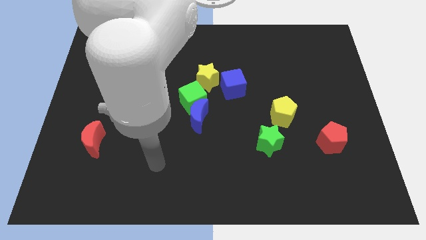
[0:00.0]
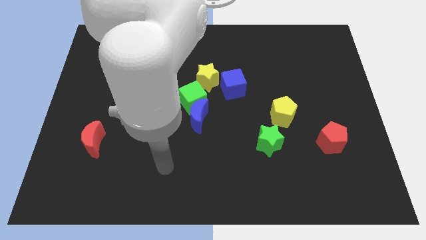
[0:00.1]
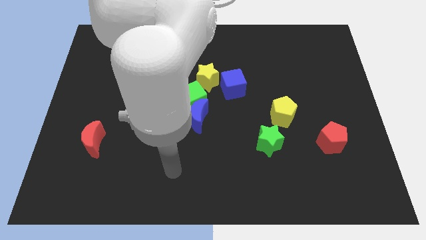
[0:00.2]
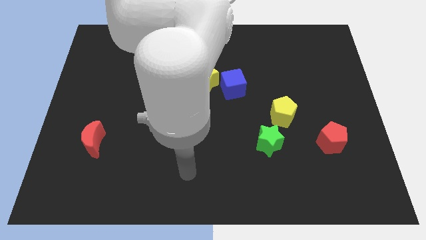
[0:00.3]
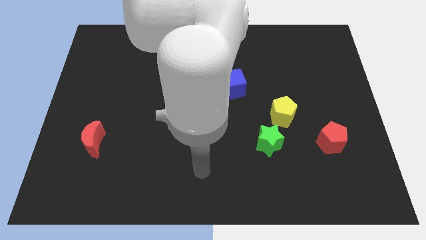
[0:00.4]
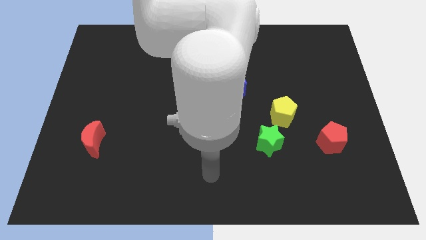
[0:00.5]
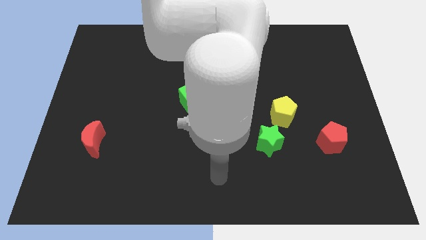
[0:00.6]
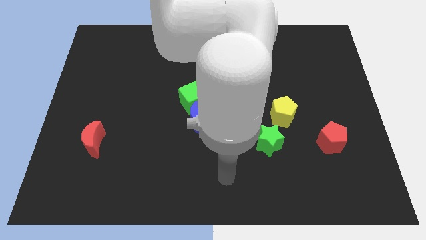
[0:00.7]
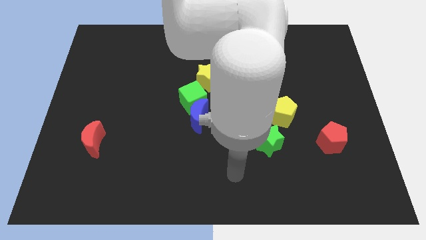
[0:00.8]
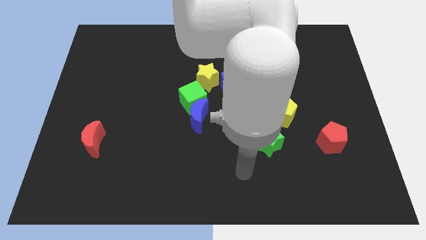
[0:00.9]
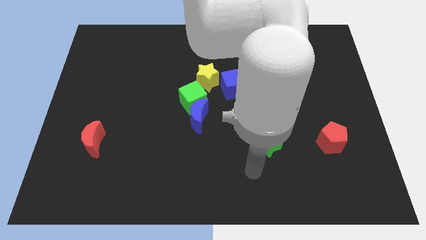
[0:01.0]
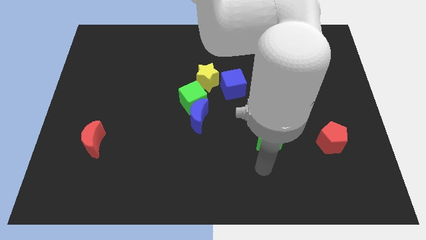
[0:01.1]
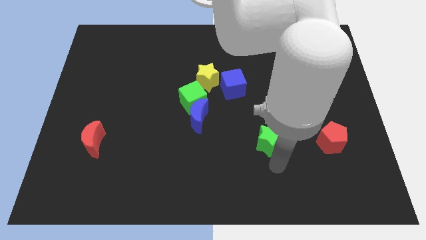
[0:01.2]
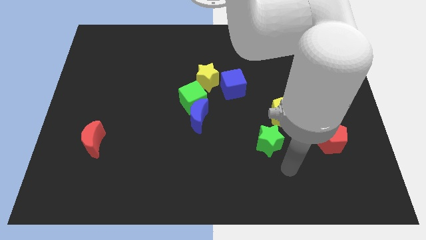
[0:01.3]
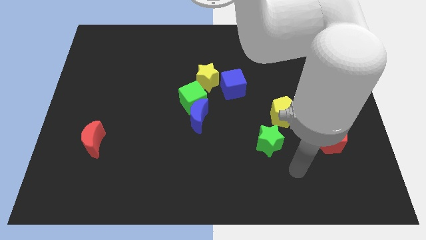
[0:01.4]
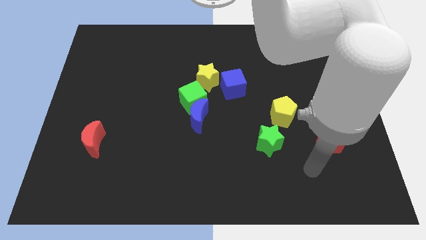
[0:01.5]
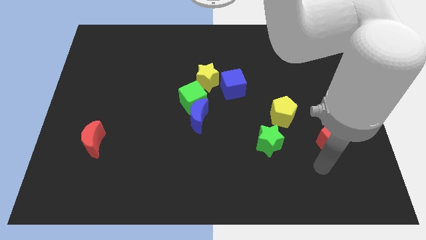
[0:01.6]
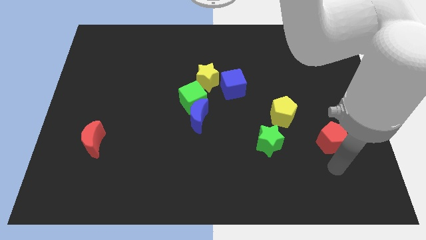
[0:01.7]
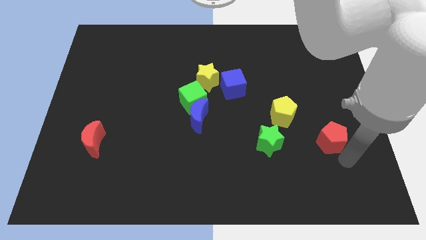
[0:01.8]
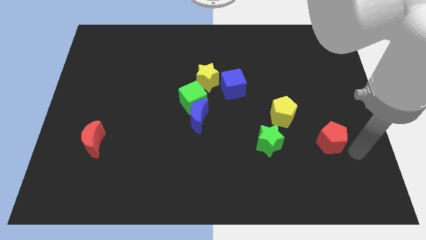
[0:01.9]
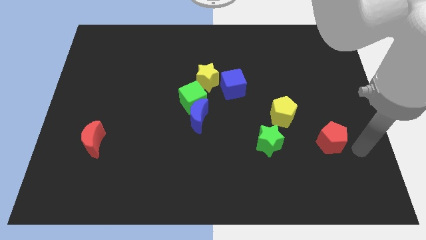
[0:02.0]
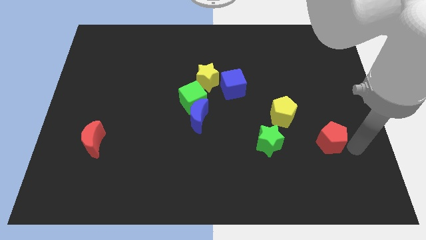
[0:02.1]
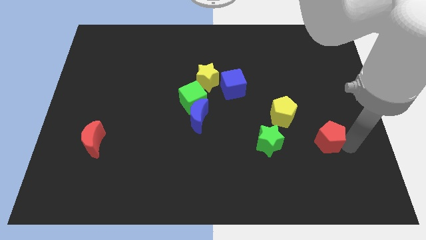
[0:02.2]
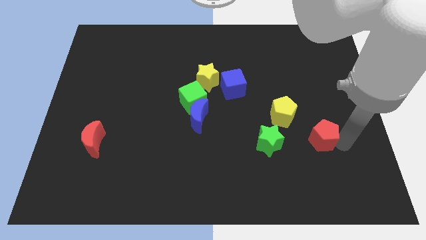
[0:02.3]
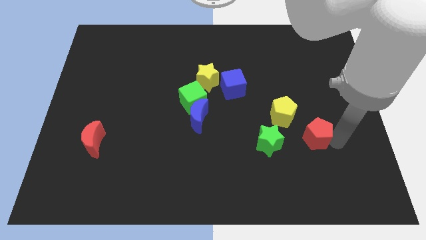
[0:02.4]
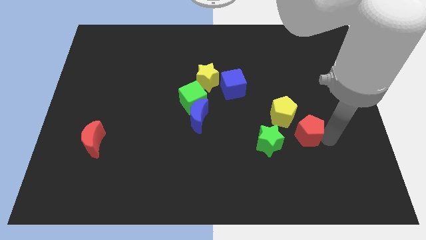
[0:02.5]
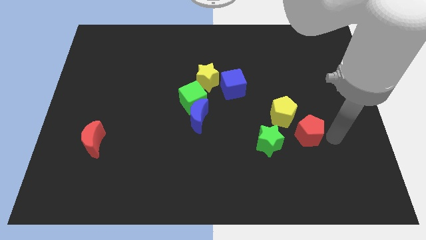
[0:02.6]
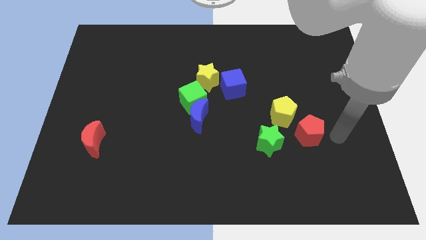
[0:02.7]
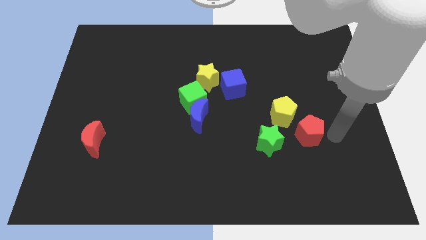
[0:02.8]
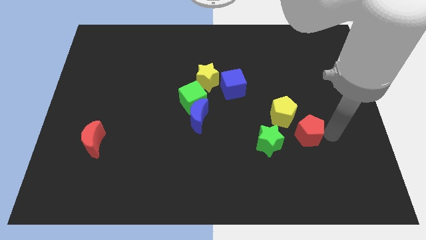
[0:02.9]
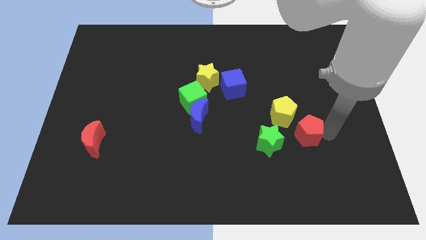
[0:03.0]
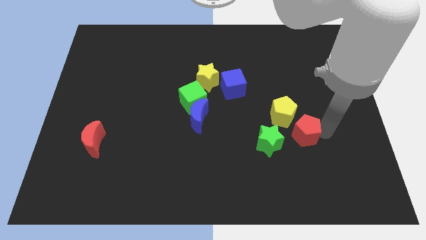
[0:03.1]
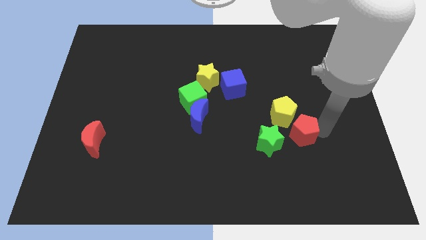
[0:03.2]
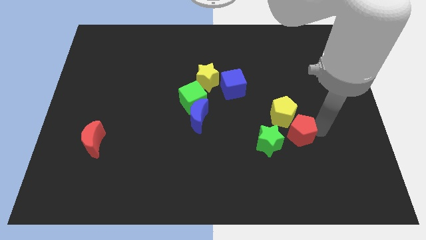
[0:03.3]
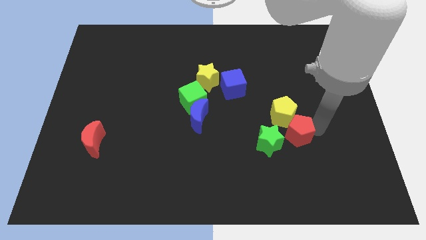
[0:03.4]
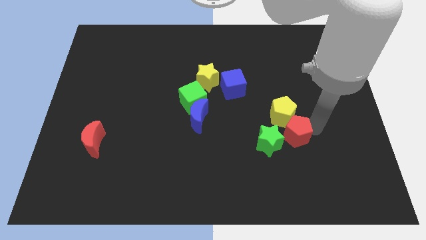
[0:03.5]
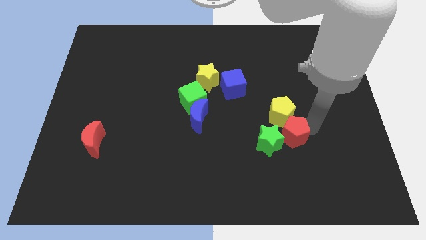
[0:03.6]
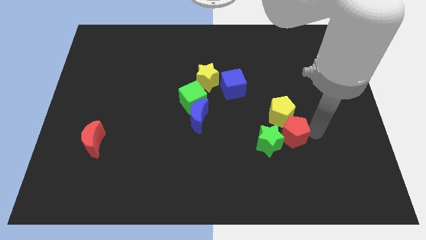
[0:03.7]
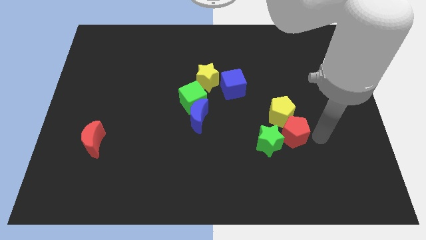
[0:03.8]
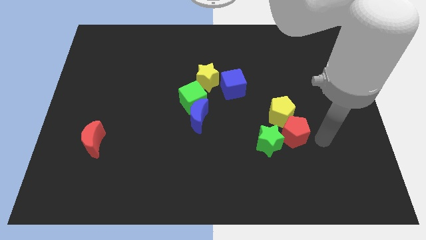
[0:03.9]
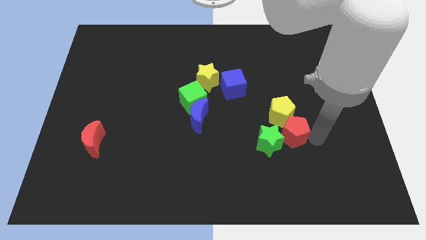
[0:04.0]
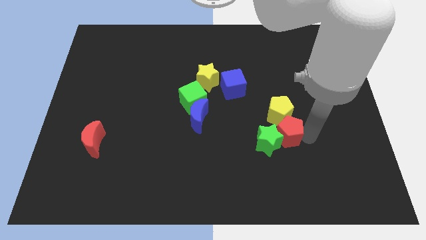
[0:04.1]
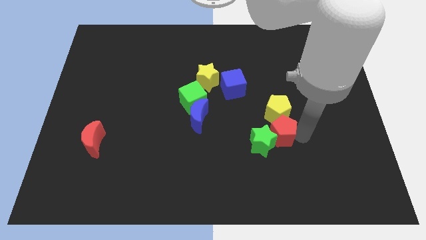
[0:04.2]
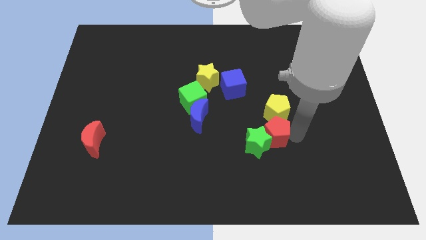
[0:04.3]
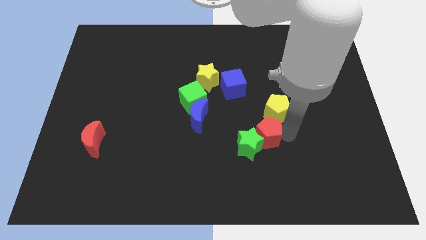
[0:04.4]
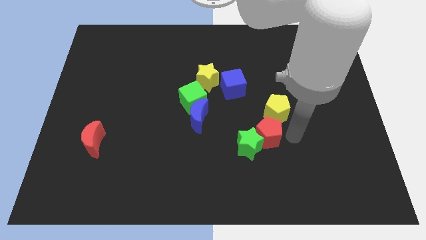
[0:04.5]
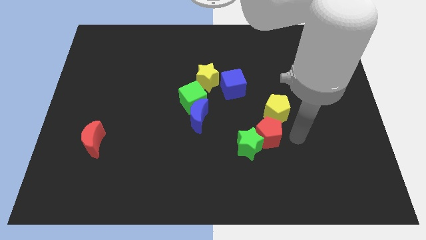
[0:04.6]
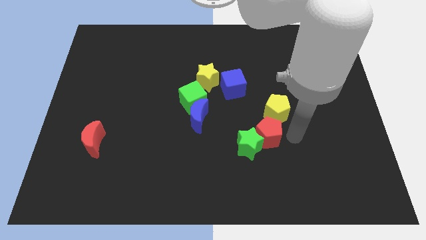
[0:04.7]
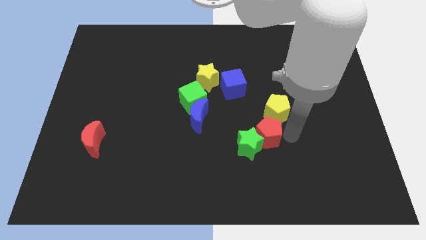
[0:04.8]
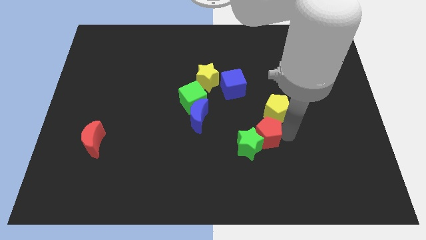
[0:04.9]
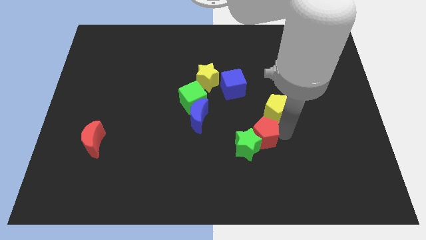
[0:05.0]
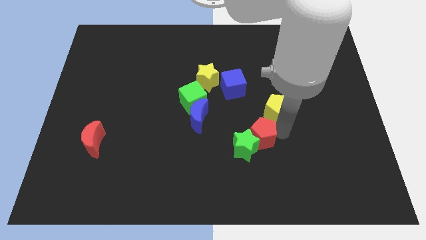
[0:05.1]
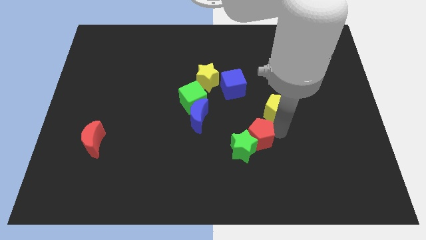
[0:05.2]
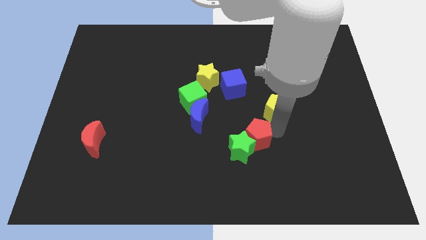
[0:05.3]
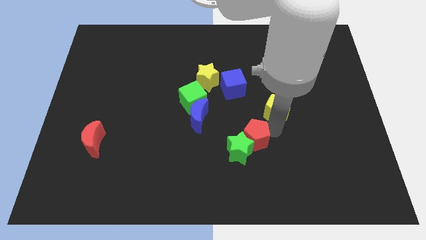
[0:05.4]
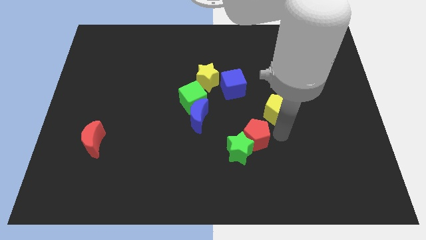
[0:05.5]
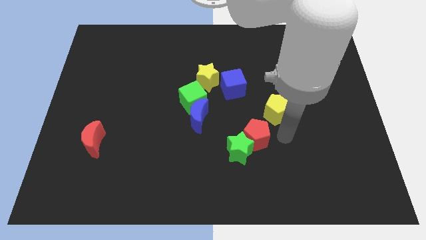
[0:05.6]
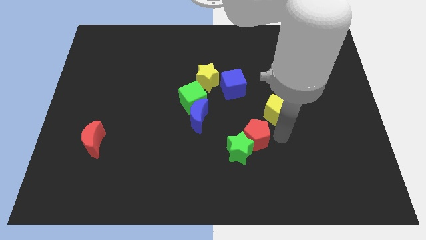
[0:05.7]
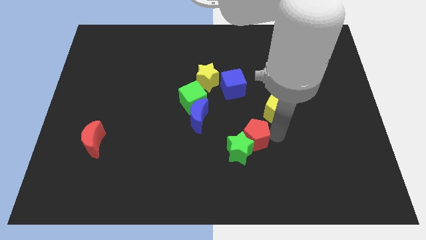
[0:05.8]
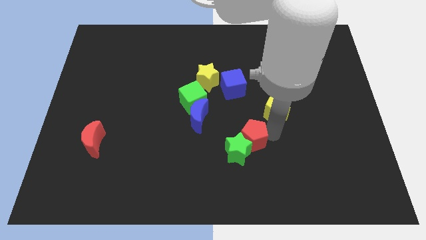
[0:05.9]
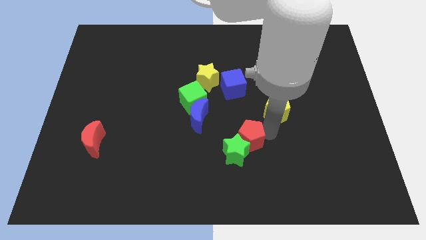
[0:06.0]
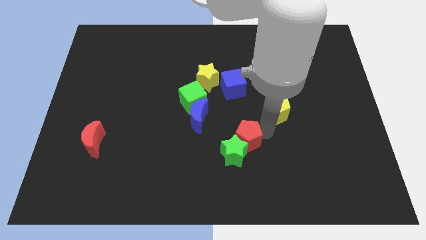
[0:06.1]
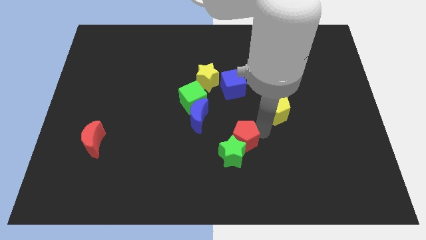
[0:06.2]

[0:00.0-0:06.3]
slide the red pentagon diagonally down and to the right of the blue moon

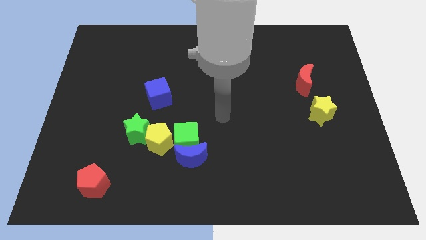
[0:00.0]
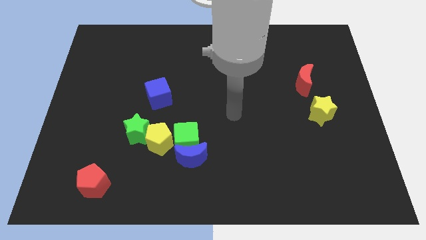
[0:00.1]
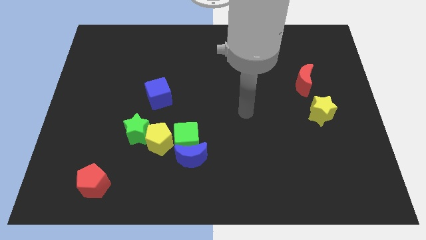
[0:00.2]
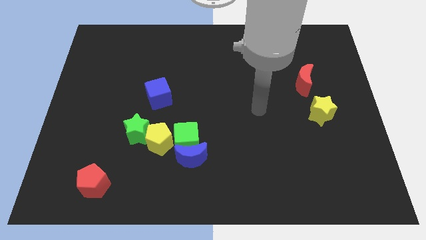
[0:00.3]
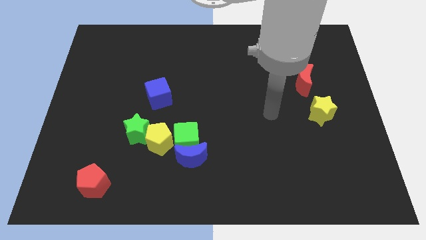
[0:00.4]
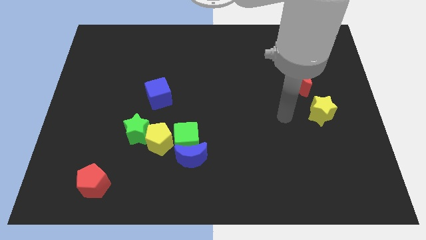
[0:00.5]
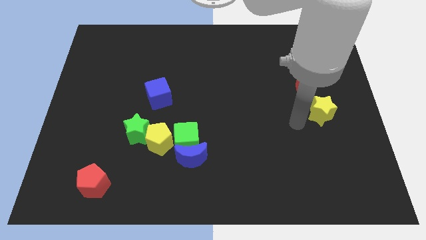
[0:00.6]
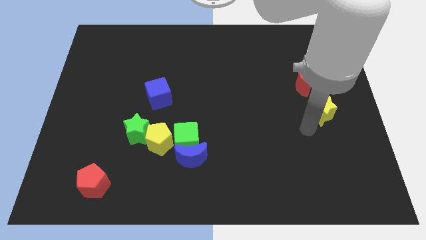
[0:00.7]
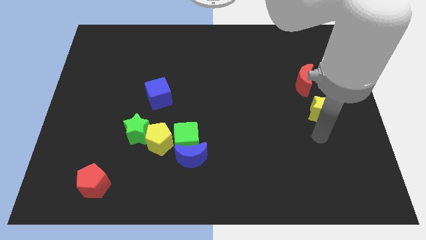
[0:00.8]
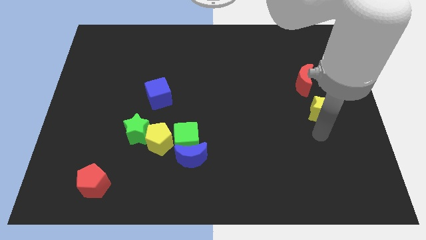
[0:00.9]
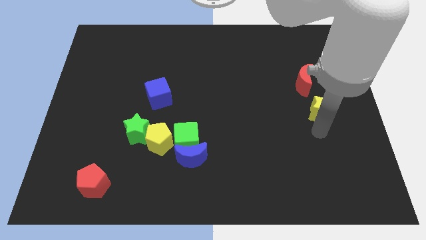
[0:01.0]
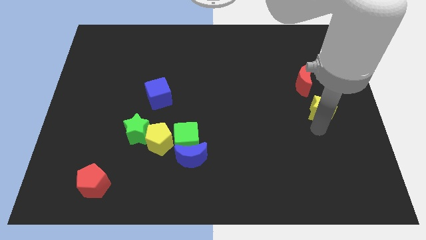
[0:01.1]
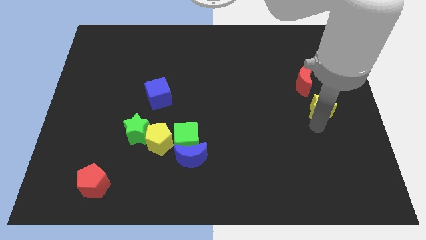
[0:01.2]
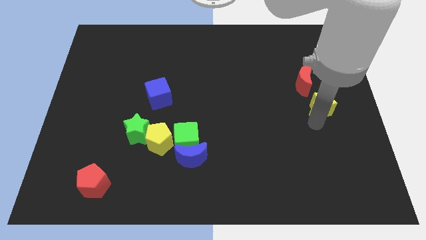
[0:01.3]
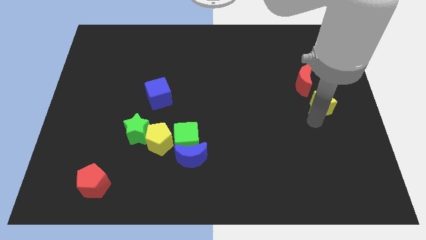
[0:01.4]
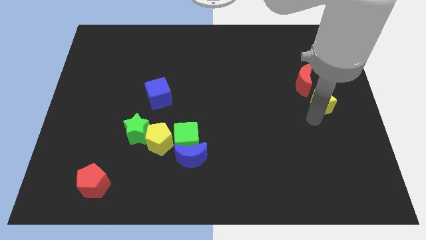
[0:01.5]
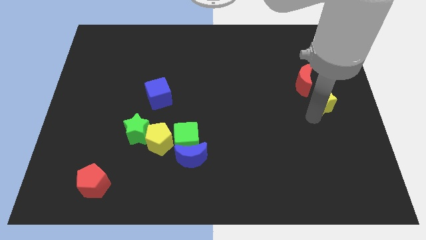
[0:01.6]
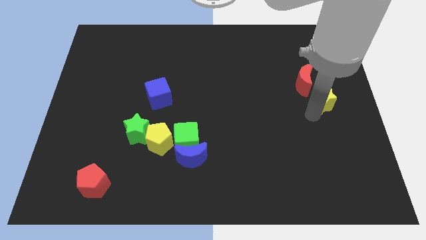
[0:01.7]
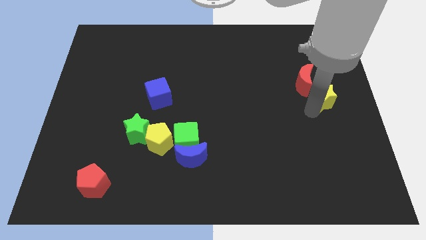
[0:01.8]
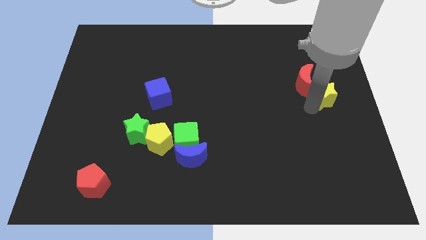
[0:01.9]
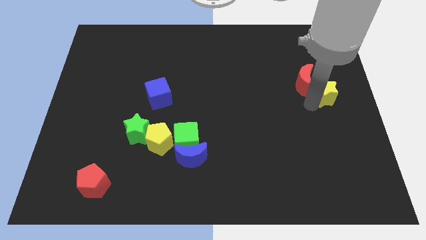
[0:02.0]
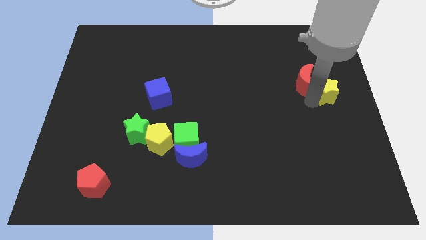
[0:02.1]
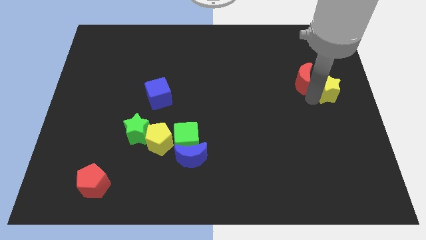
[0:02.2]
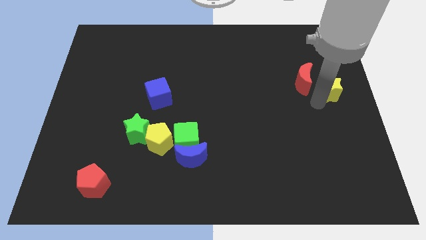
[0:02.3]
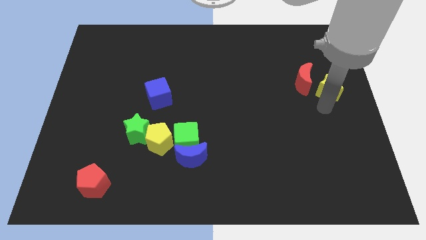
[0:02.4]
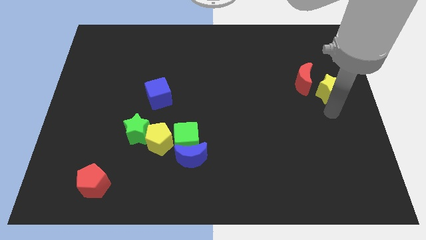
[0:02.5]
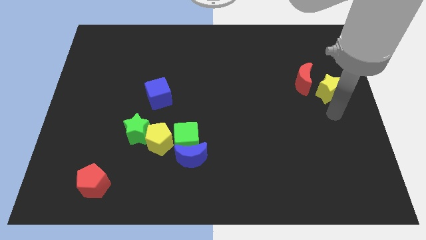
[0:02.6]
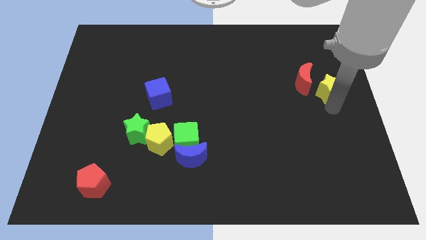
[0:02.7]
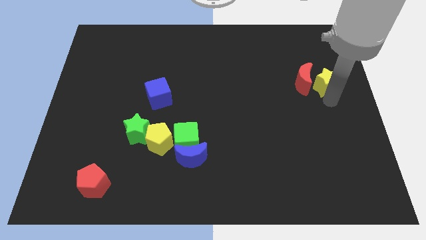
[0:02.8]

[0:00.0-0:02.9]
put the yellow star diagonally up and to the right of the red moon
